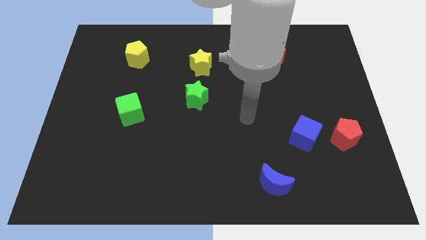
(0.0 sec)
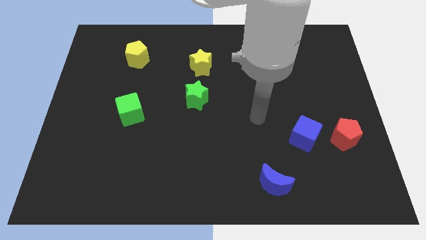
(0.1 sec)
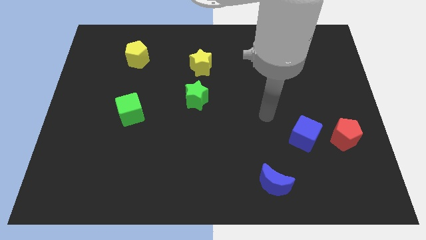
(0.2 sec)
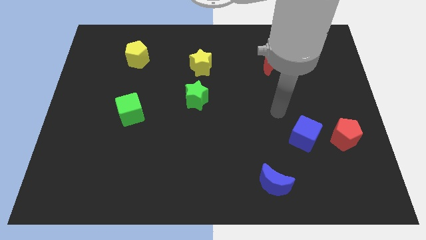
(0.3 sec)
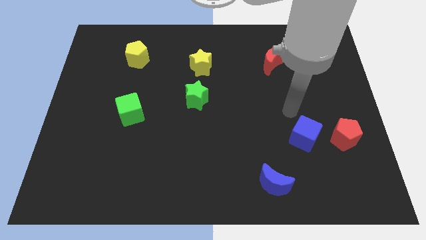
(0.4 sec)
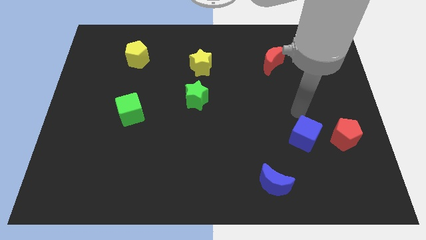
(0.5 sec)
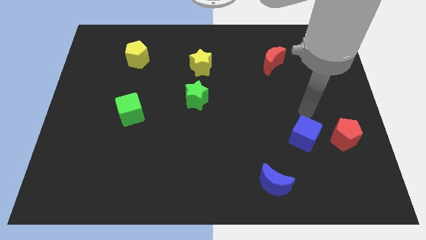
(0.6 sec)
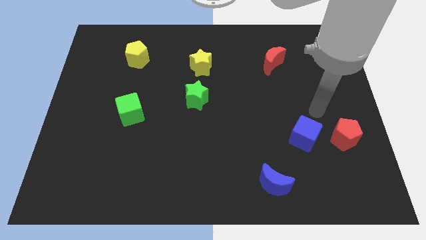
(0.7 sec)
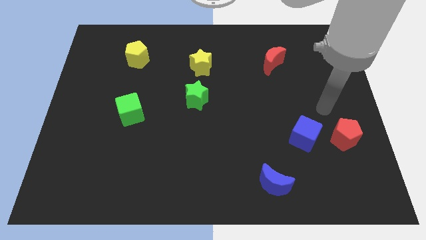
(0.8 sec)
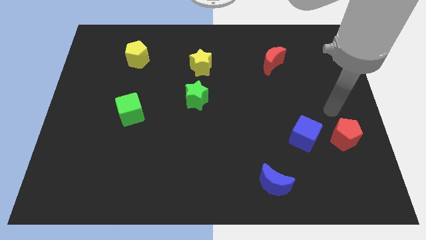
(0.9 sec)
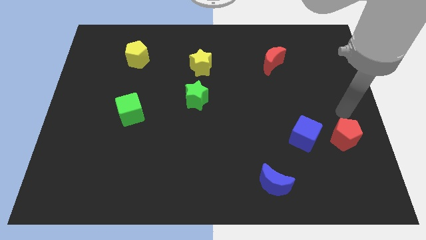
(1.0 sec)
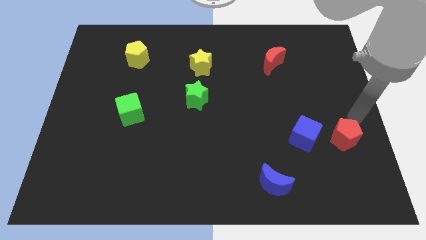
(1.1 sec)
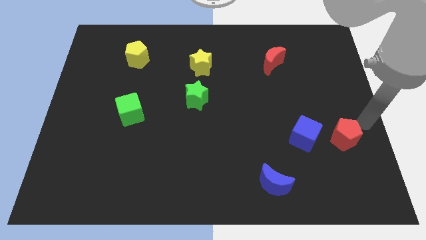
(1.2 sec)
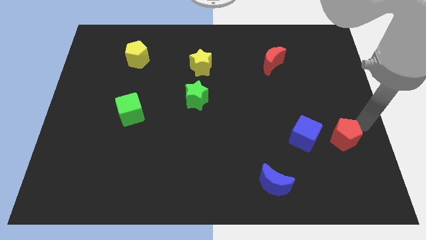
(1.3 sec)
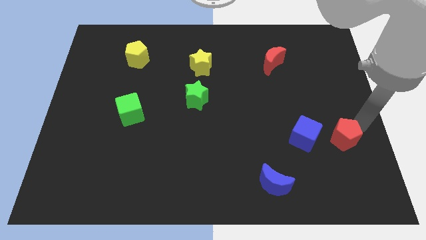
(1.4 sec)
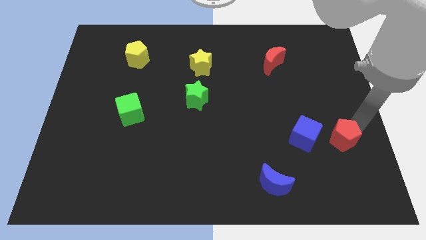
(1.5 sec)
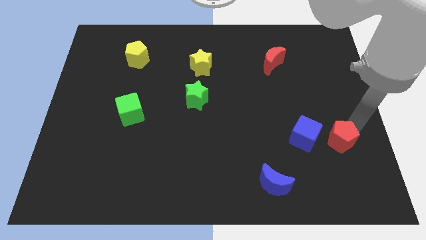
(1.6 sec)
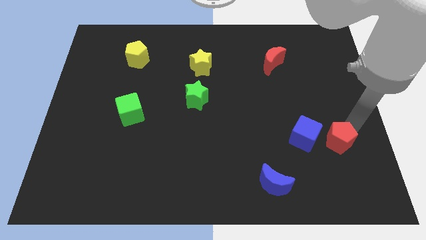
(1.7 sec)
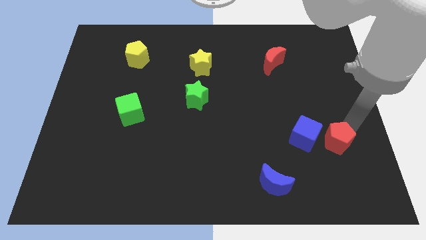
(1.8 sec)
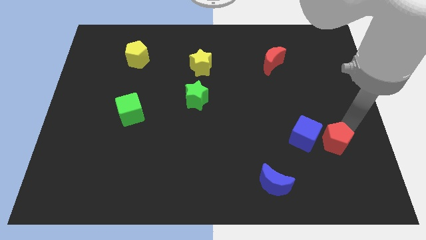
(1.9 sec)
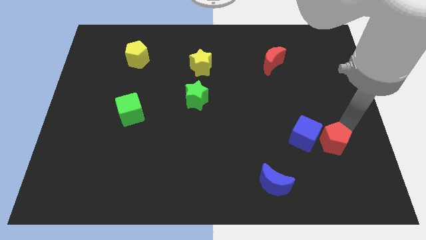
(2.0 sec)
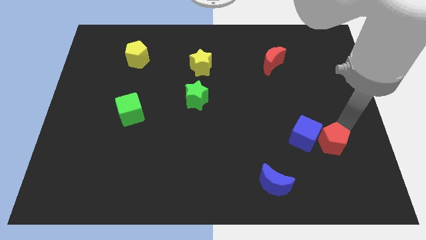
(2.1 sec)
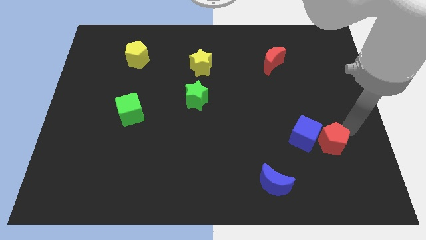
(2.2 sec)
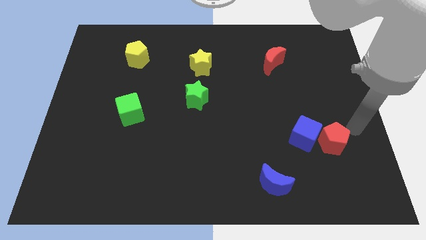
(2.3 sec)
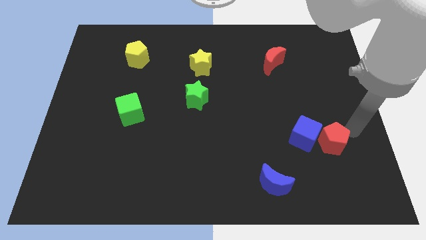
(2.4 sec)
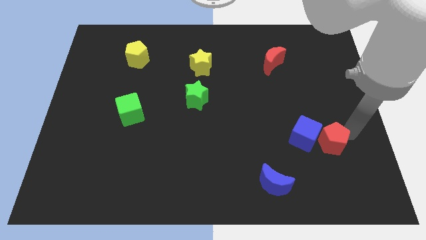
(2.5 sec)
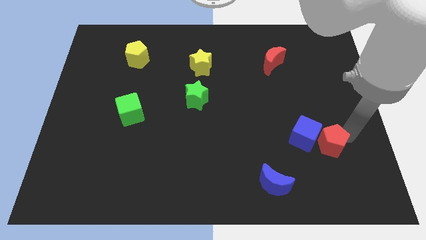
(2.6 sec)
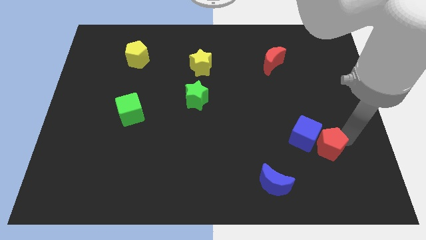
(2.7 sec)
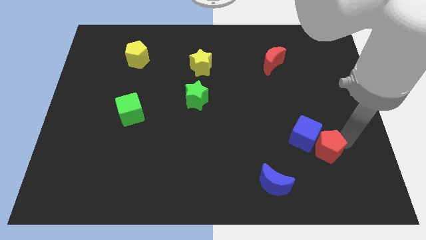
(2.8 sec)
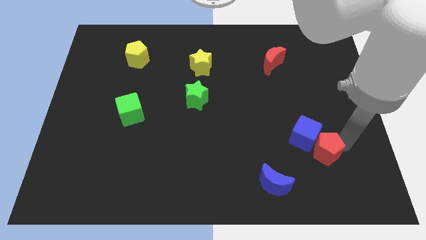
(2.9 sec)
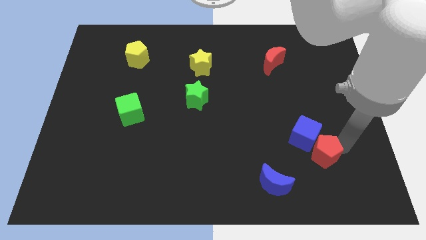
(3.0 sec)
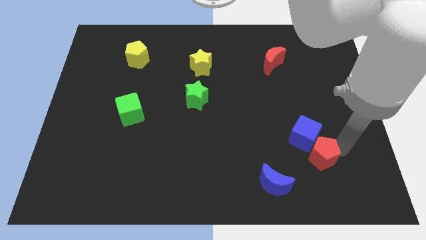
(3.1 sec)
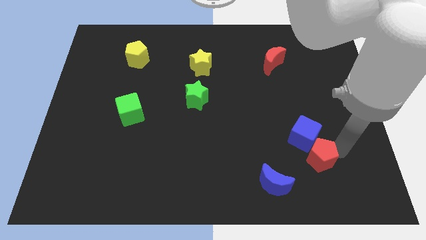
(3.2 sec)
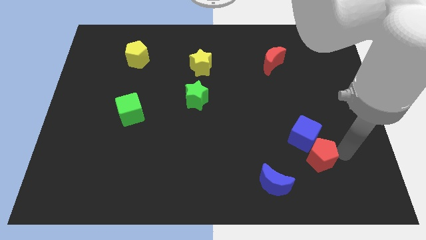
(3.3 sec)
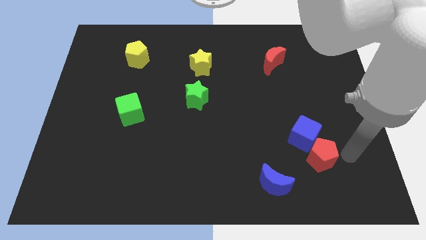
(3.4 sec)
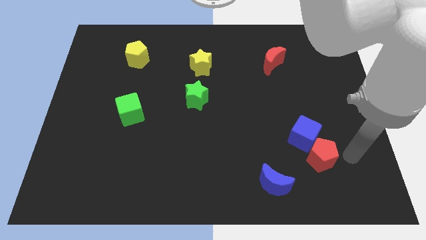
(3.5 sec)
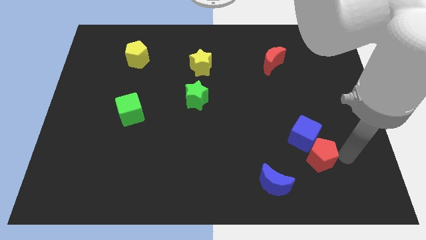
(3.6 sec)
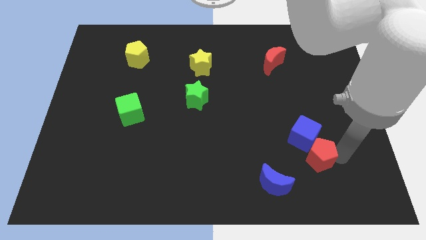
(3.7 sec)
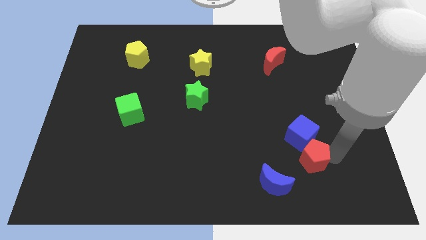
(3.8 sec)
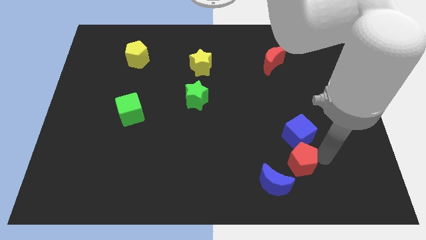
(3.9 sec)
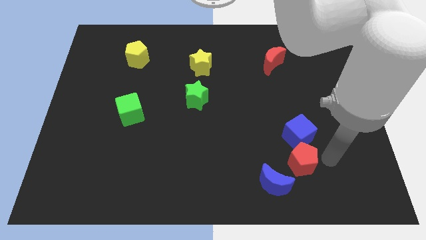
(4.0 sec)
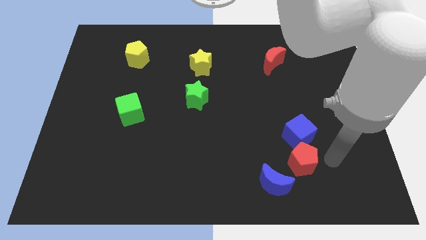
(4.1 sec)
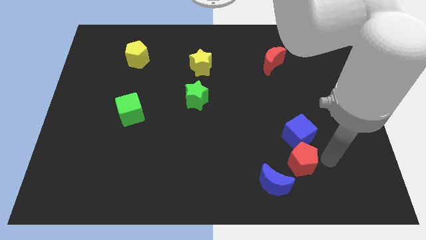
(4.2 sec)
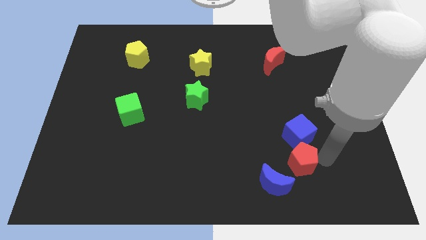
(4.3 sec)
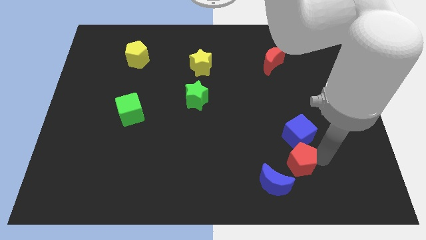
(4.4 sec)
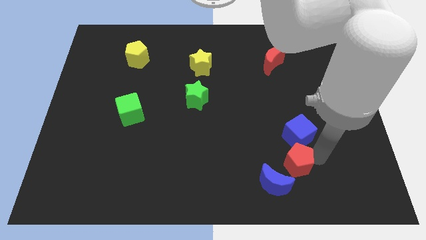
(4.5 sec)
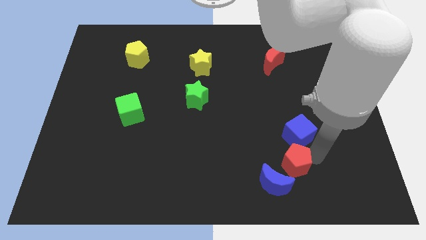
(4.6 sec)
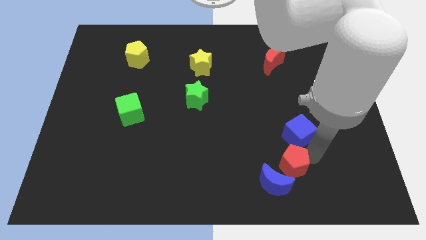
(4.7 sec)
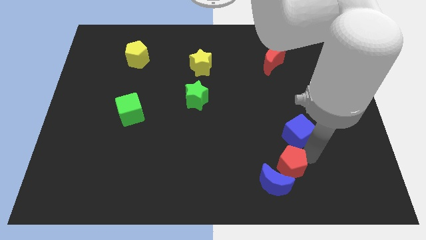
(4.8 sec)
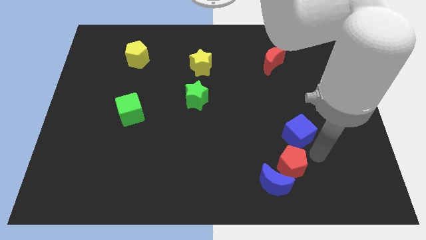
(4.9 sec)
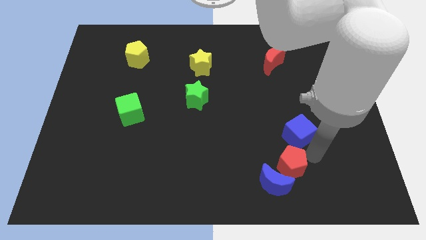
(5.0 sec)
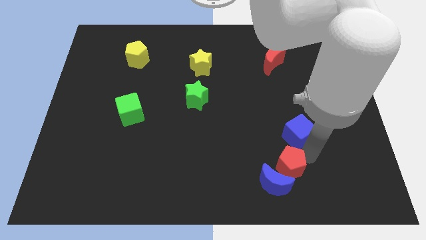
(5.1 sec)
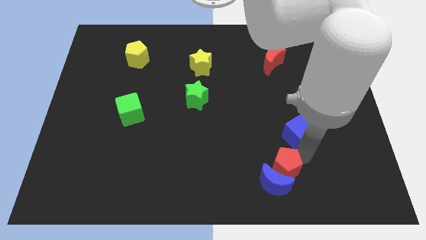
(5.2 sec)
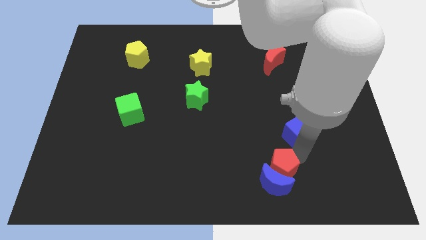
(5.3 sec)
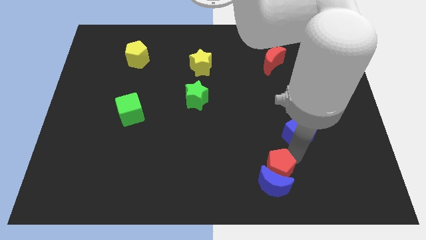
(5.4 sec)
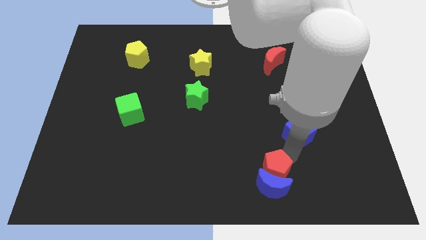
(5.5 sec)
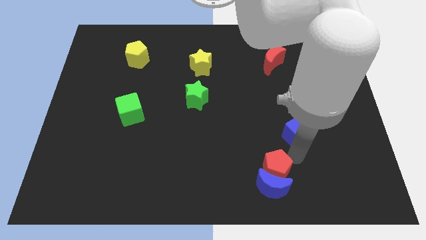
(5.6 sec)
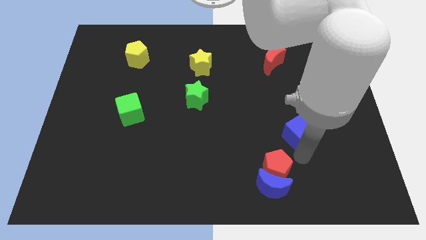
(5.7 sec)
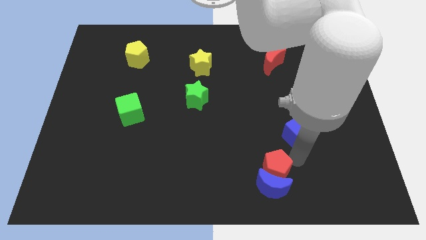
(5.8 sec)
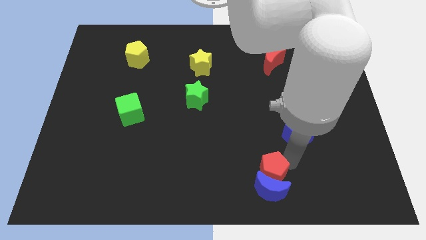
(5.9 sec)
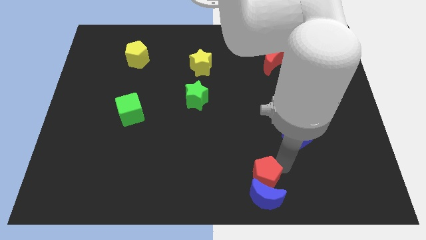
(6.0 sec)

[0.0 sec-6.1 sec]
move the red pentagon to the bottom

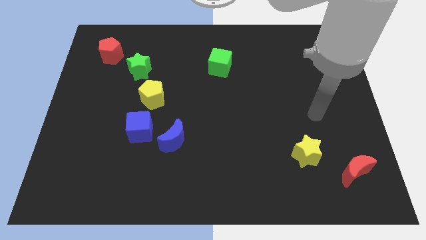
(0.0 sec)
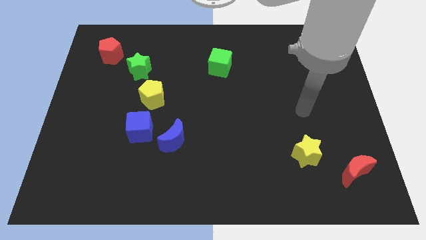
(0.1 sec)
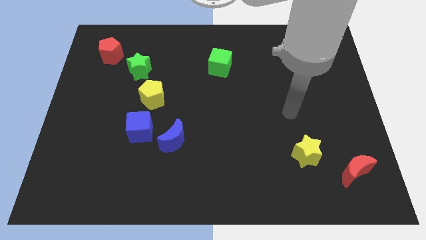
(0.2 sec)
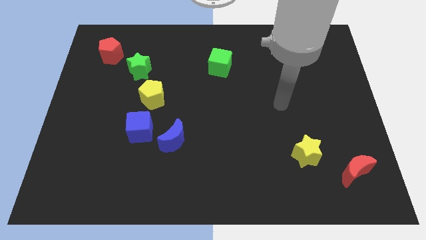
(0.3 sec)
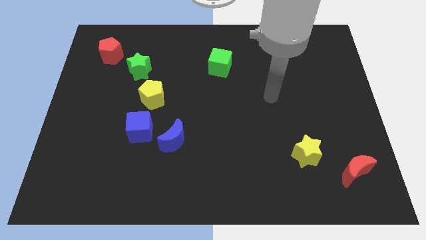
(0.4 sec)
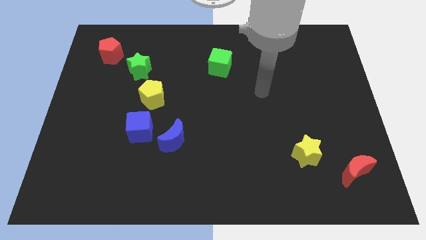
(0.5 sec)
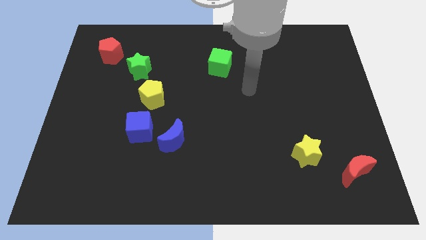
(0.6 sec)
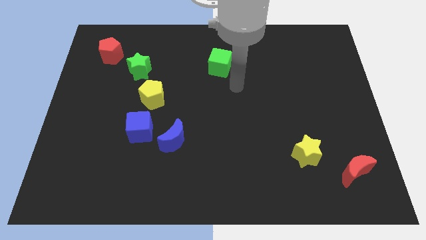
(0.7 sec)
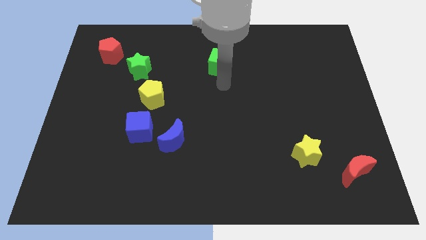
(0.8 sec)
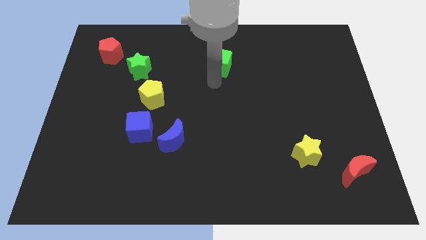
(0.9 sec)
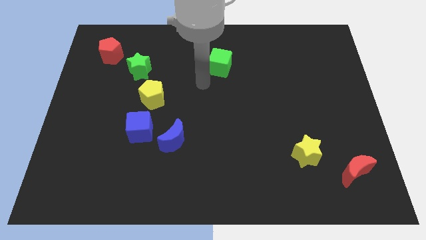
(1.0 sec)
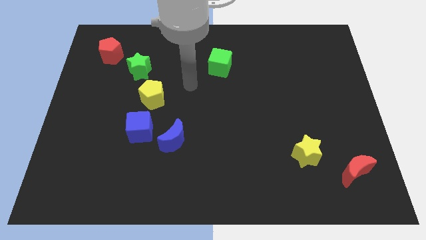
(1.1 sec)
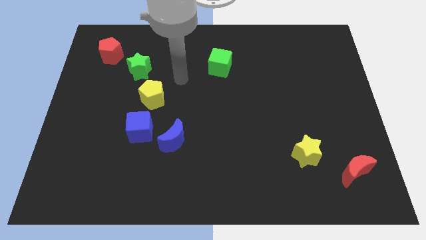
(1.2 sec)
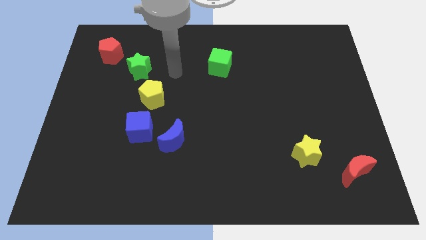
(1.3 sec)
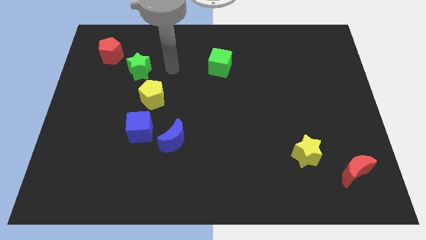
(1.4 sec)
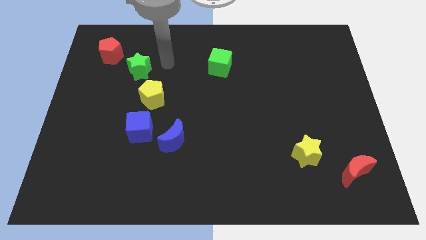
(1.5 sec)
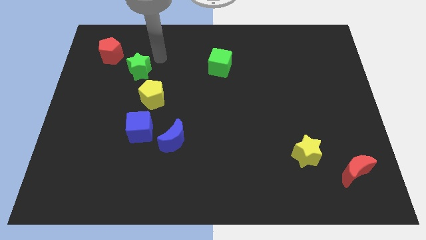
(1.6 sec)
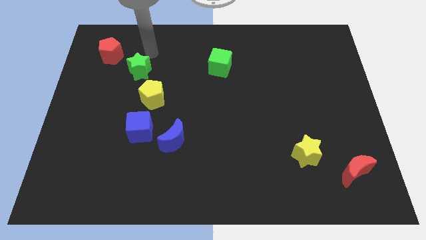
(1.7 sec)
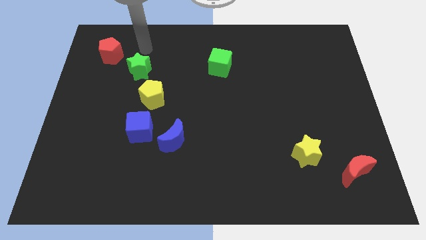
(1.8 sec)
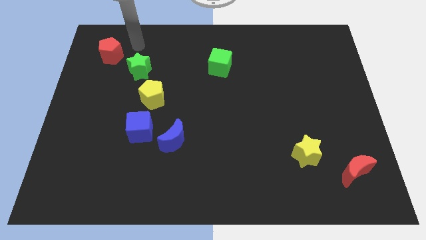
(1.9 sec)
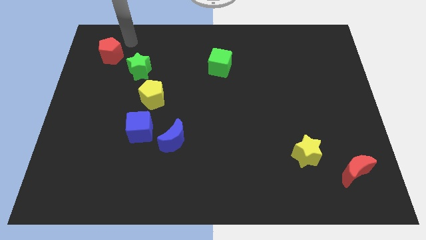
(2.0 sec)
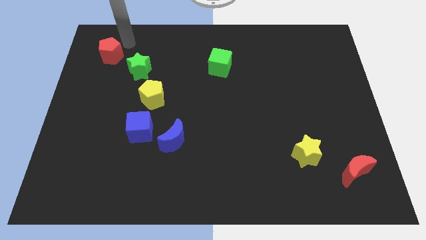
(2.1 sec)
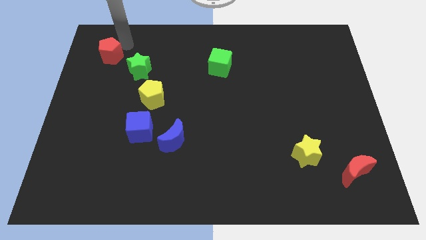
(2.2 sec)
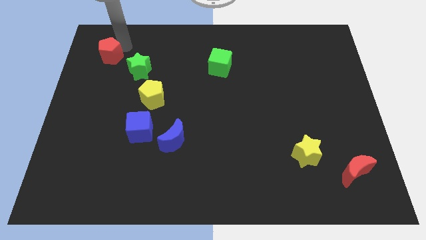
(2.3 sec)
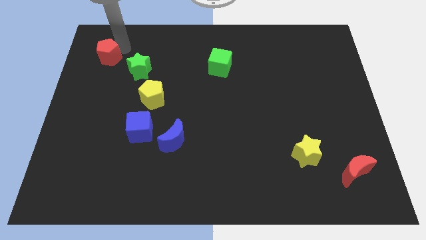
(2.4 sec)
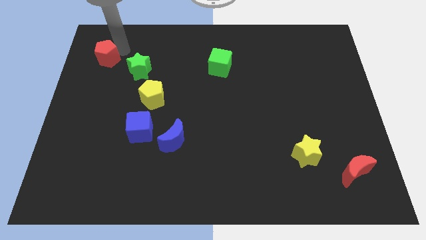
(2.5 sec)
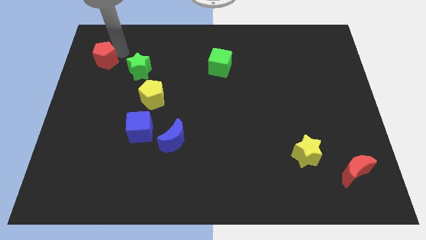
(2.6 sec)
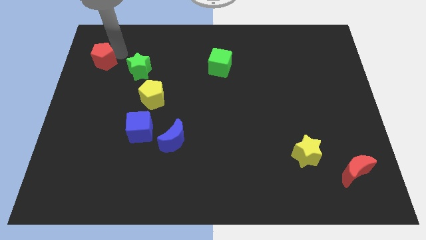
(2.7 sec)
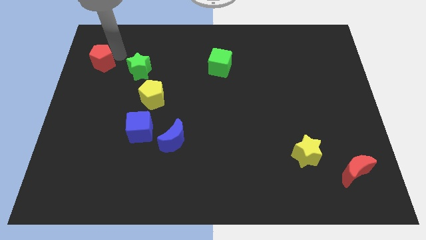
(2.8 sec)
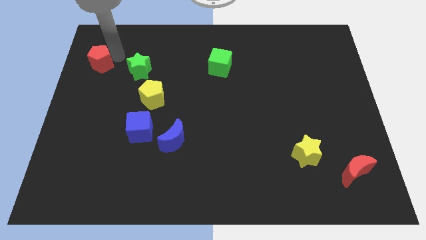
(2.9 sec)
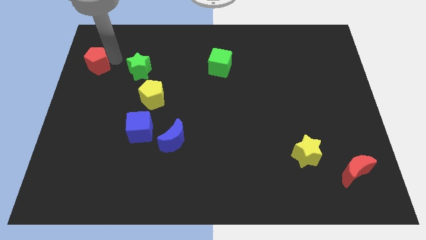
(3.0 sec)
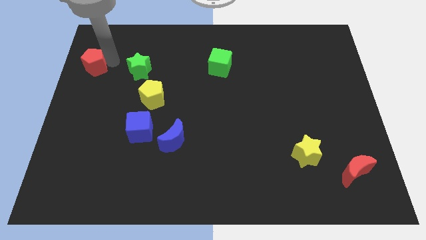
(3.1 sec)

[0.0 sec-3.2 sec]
slide the red pentagon to the left side of the board
